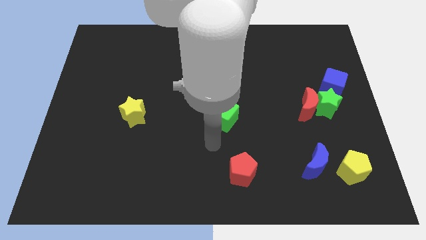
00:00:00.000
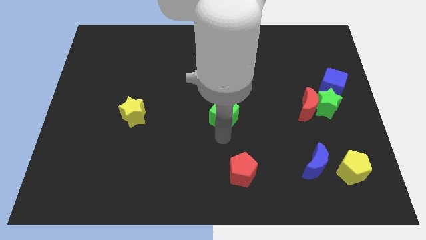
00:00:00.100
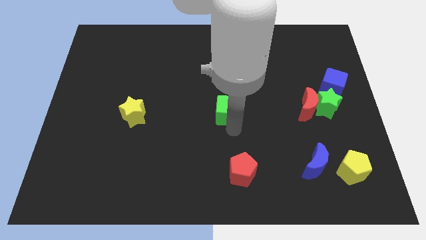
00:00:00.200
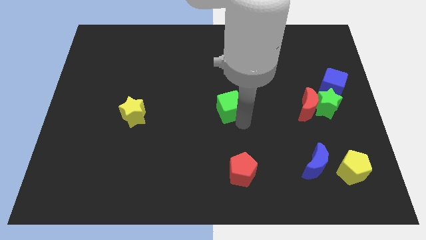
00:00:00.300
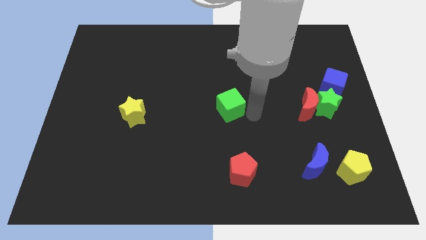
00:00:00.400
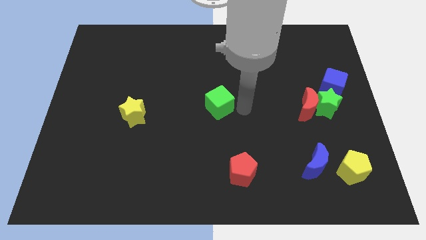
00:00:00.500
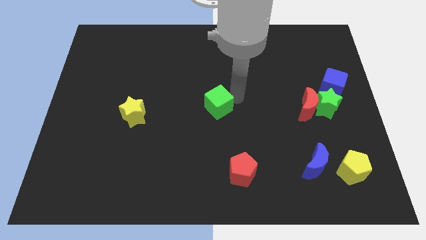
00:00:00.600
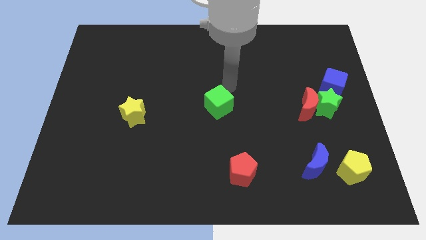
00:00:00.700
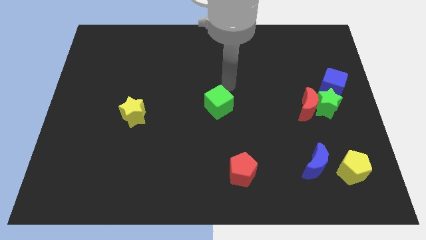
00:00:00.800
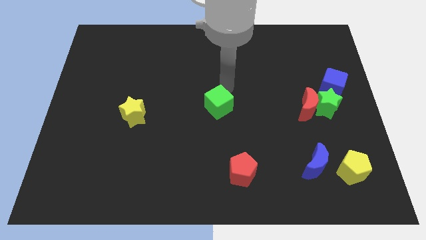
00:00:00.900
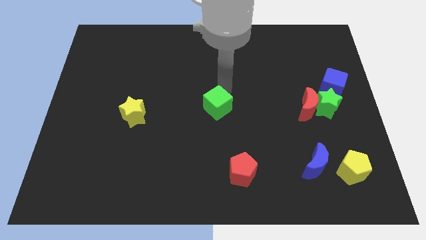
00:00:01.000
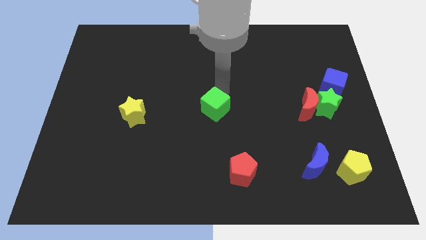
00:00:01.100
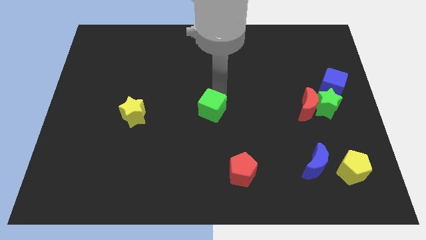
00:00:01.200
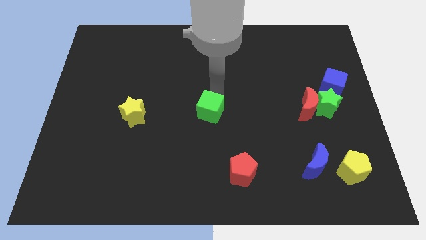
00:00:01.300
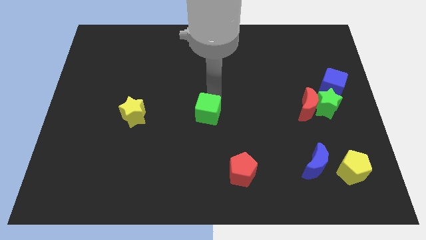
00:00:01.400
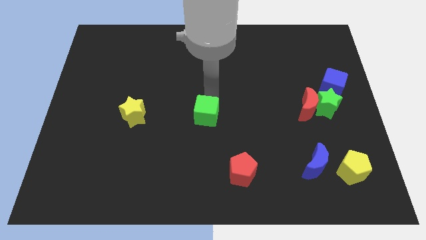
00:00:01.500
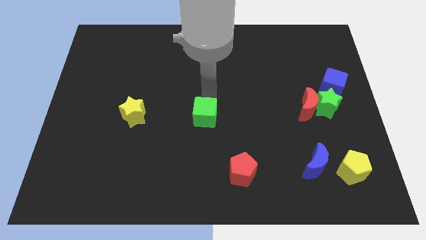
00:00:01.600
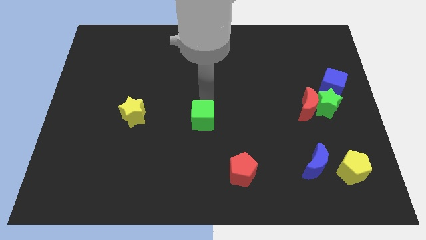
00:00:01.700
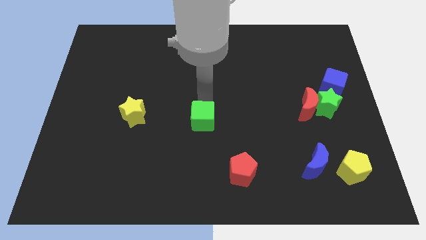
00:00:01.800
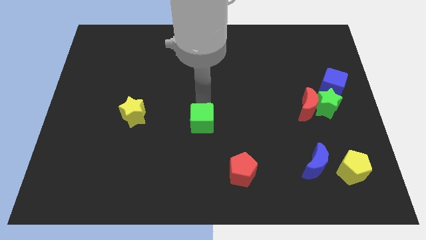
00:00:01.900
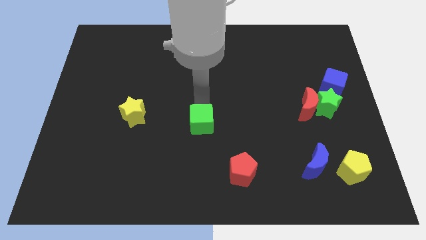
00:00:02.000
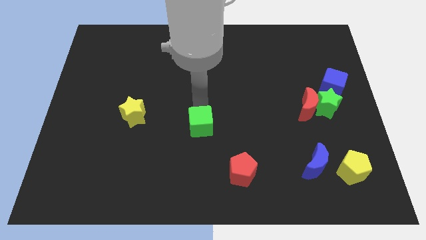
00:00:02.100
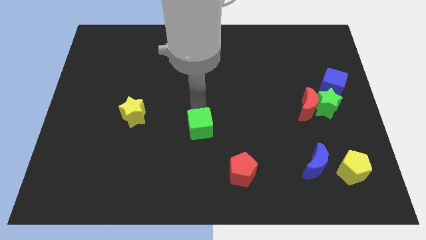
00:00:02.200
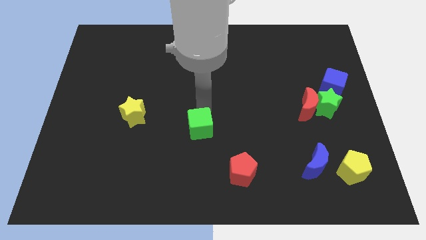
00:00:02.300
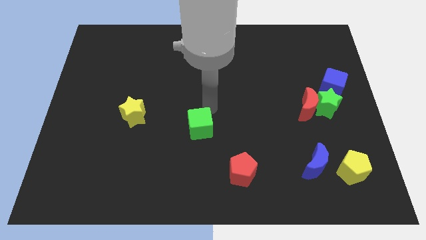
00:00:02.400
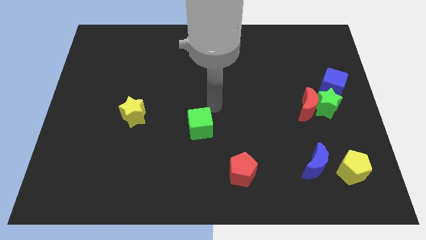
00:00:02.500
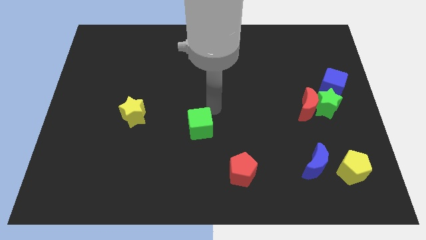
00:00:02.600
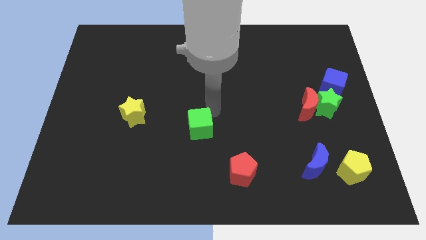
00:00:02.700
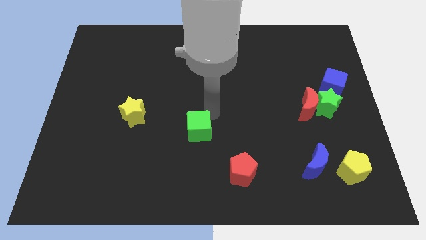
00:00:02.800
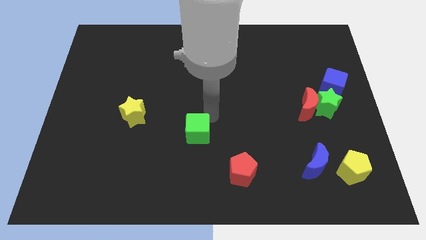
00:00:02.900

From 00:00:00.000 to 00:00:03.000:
move the green cube downwards and then left a little

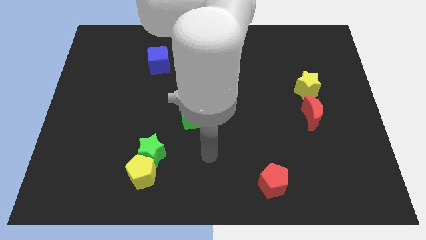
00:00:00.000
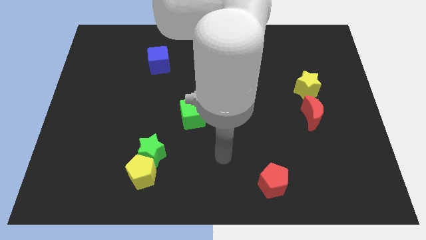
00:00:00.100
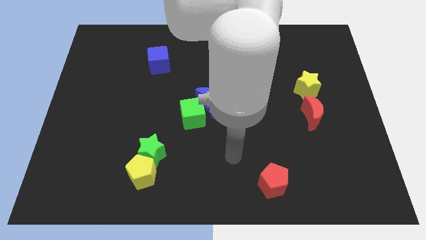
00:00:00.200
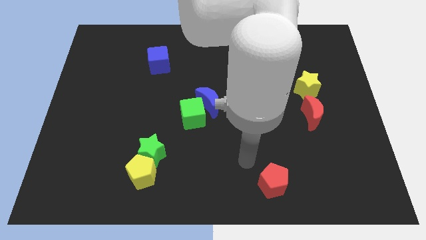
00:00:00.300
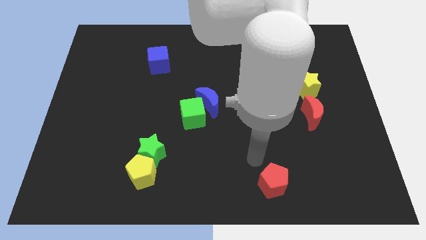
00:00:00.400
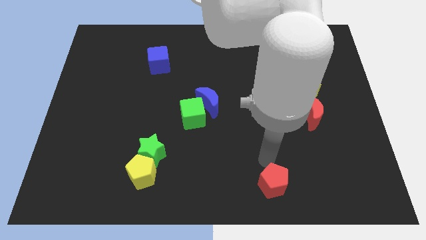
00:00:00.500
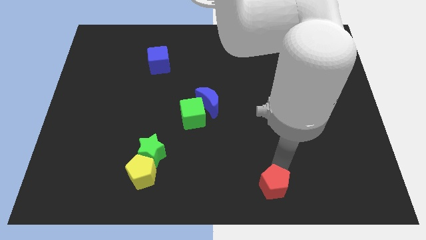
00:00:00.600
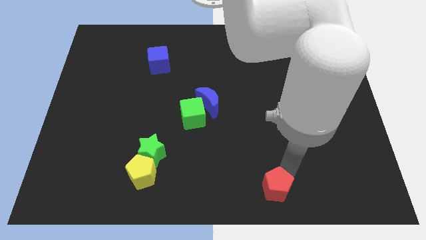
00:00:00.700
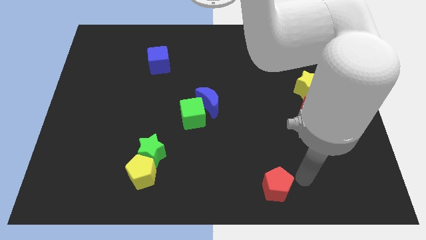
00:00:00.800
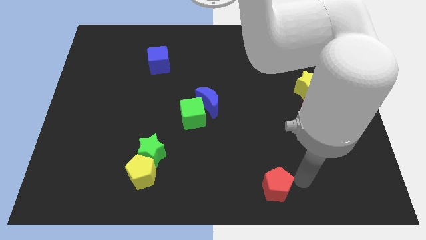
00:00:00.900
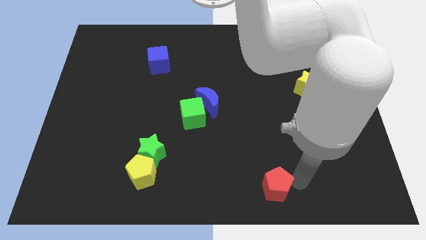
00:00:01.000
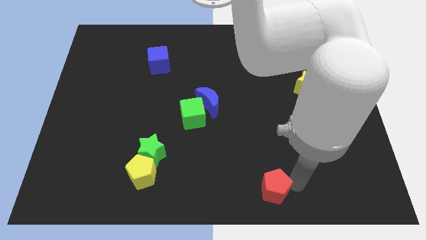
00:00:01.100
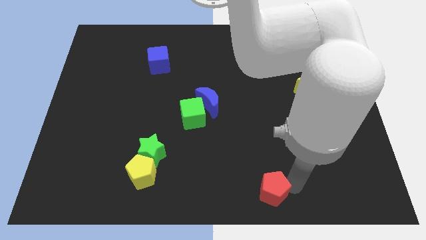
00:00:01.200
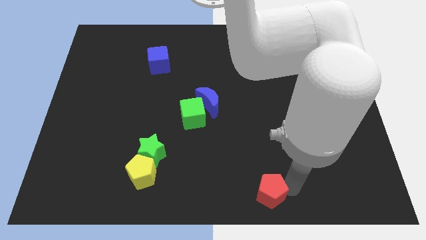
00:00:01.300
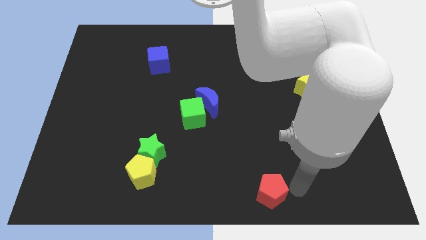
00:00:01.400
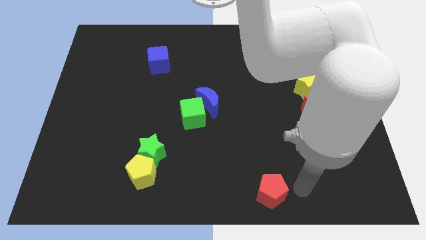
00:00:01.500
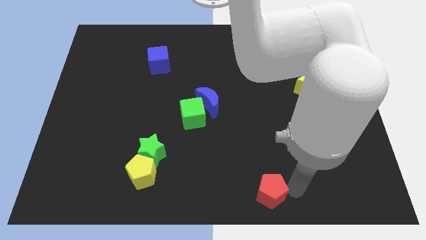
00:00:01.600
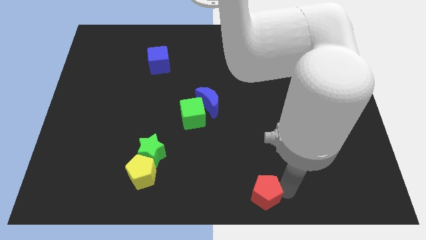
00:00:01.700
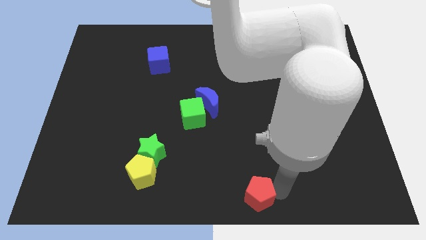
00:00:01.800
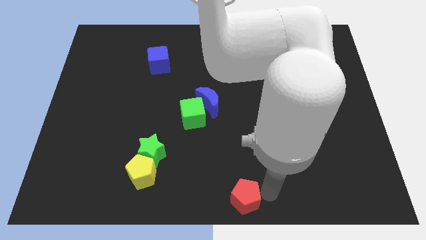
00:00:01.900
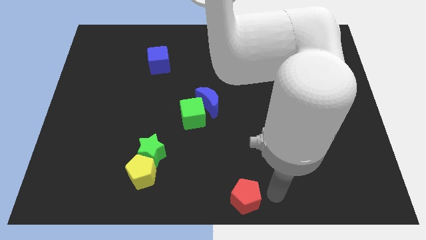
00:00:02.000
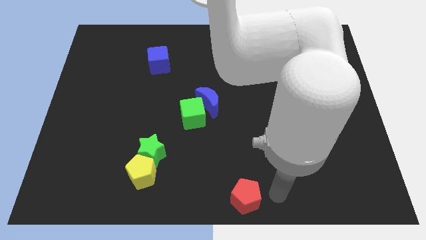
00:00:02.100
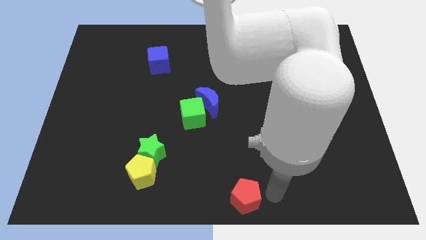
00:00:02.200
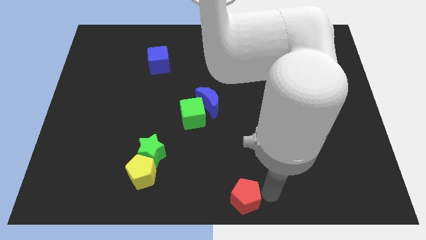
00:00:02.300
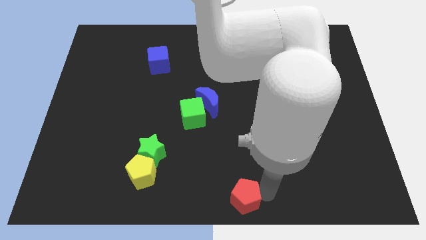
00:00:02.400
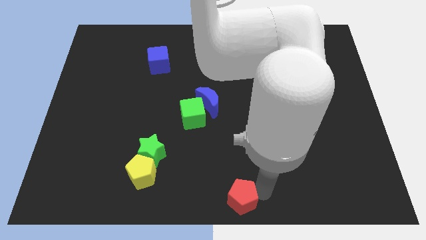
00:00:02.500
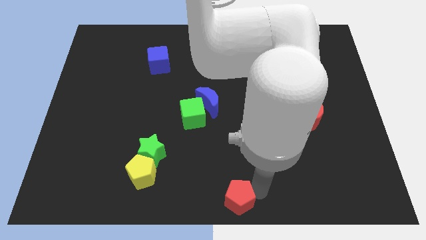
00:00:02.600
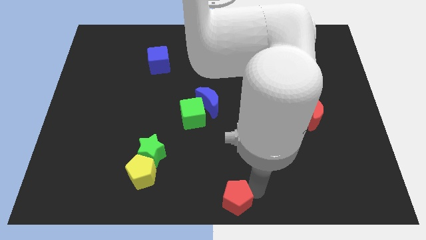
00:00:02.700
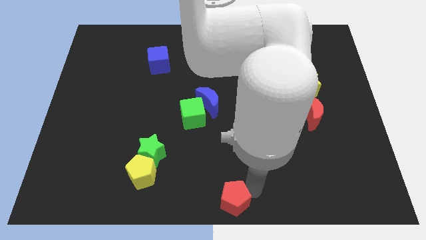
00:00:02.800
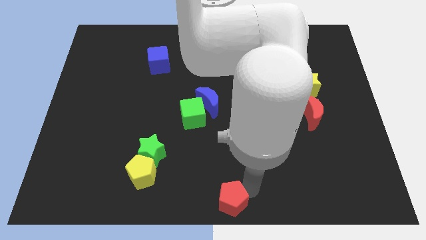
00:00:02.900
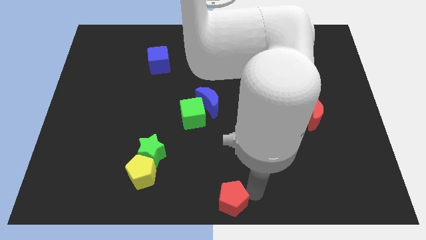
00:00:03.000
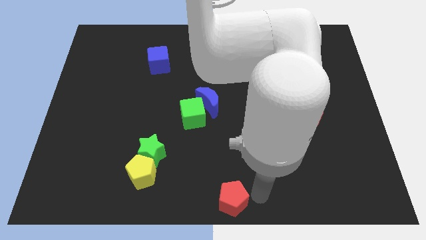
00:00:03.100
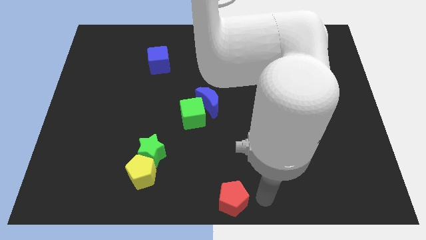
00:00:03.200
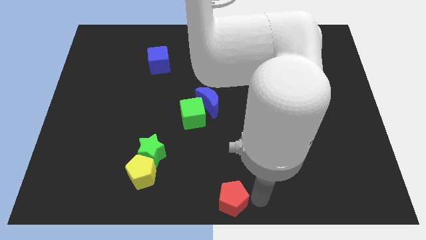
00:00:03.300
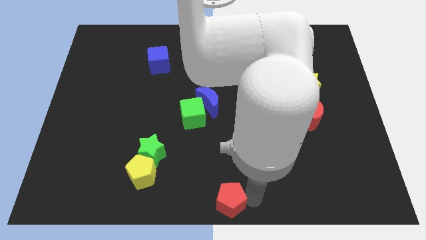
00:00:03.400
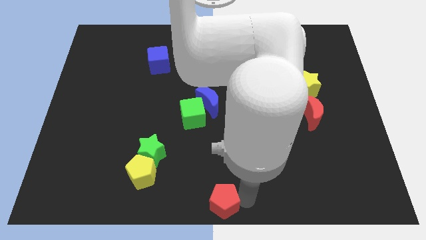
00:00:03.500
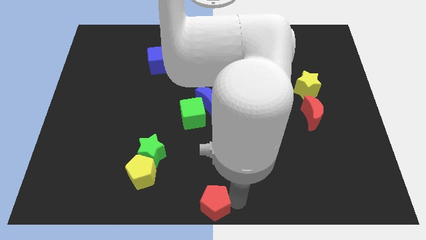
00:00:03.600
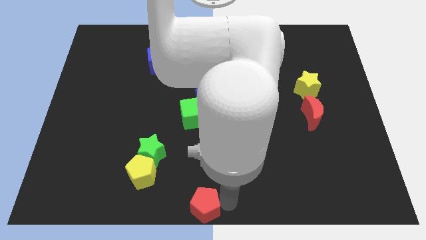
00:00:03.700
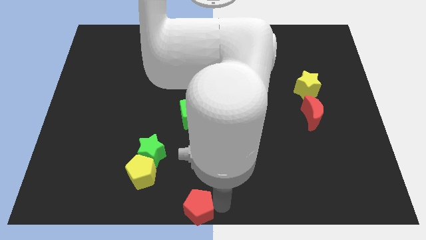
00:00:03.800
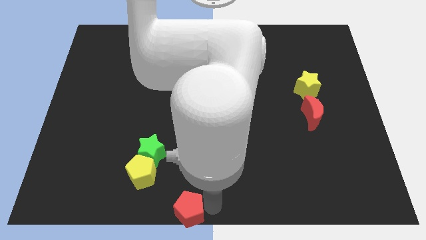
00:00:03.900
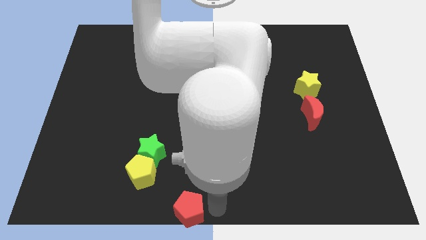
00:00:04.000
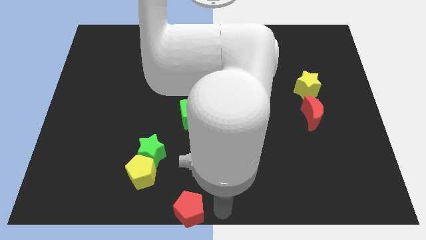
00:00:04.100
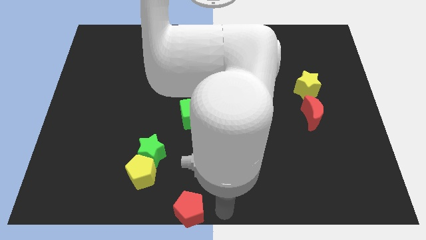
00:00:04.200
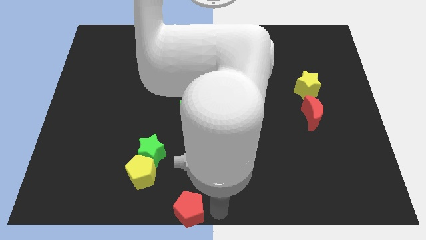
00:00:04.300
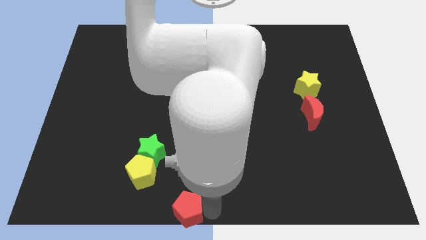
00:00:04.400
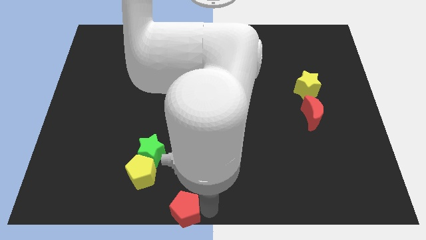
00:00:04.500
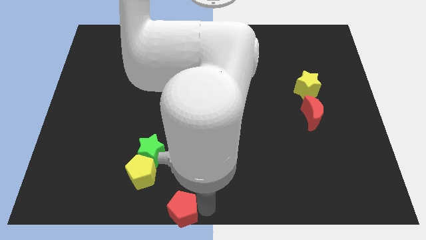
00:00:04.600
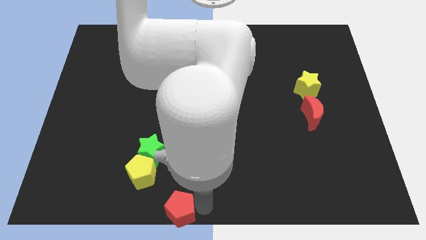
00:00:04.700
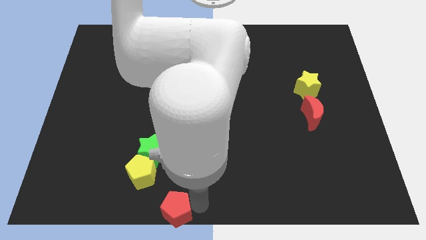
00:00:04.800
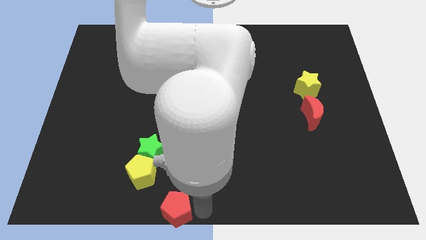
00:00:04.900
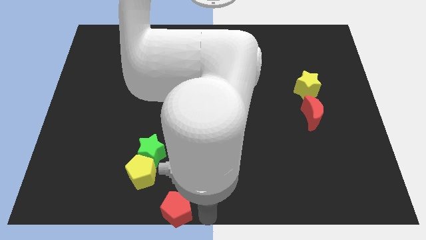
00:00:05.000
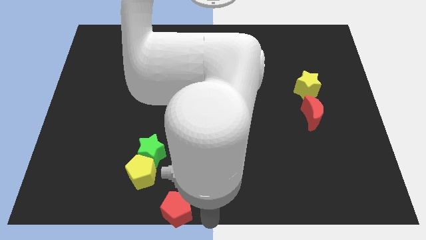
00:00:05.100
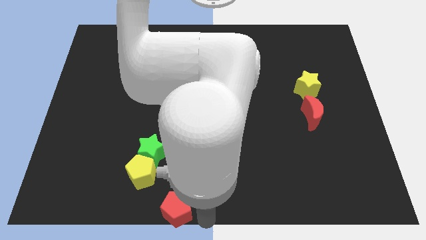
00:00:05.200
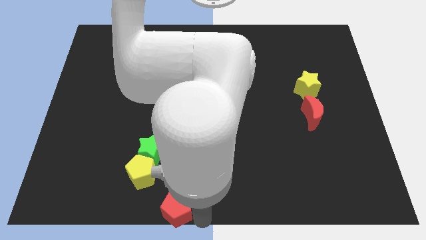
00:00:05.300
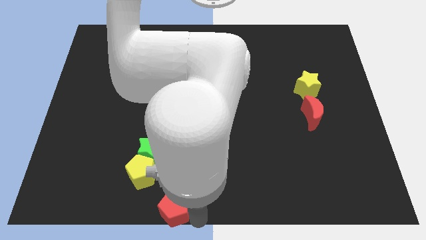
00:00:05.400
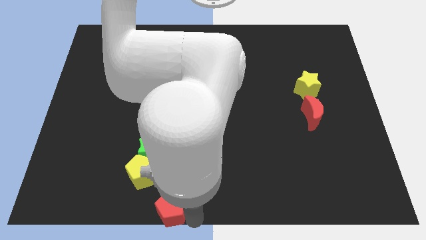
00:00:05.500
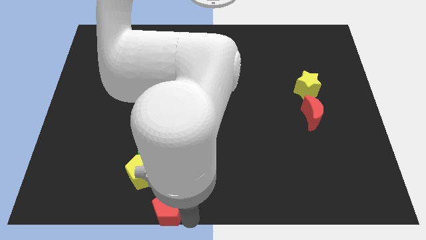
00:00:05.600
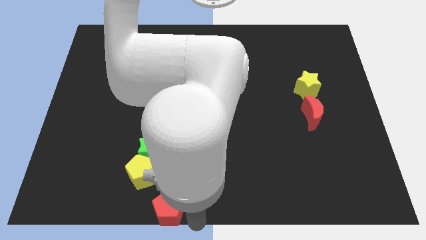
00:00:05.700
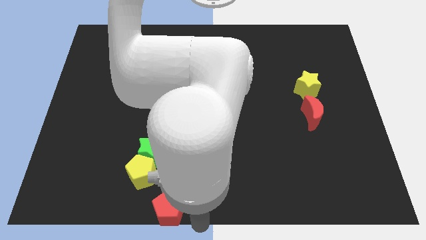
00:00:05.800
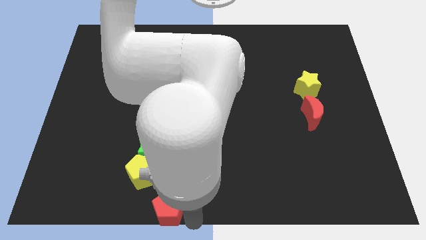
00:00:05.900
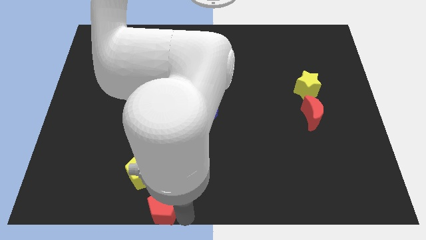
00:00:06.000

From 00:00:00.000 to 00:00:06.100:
slide the red pentagon left
